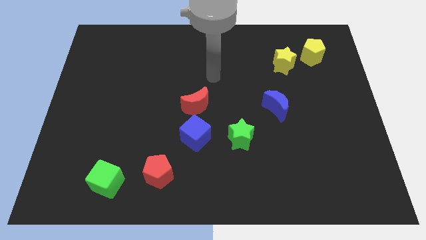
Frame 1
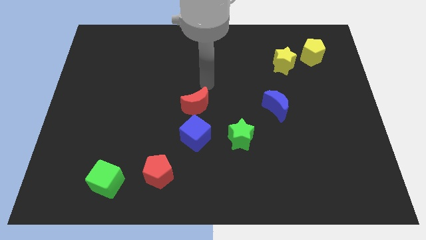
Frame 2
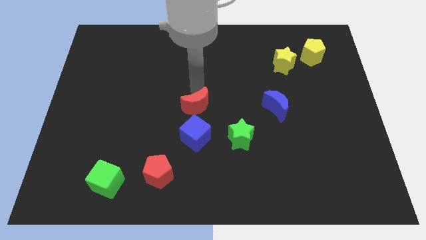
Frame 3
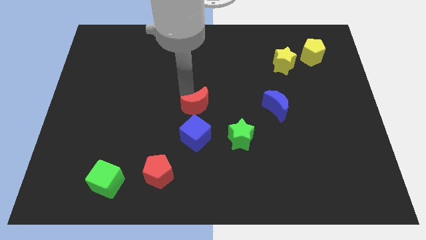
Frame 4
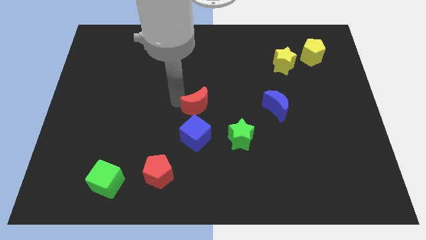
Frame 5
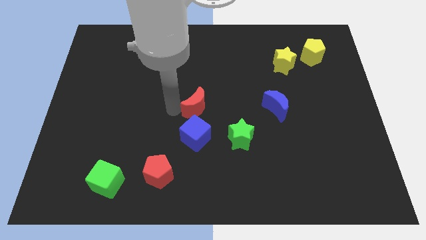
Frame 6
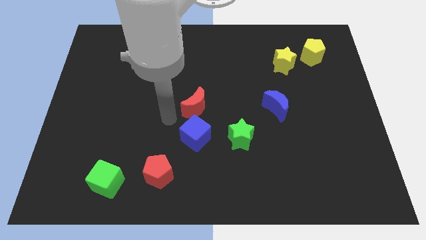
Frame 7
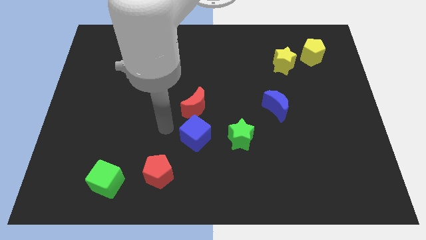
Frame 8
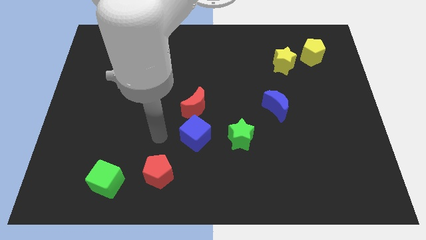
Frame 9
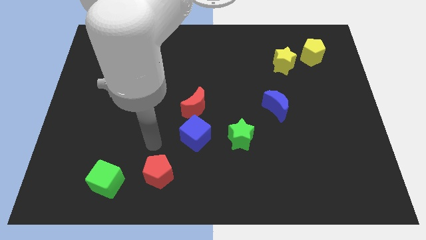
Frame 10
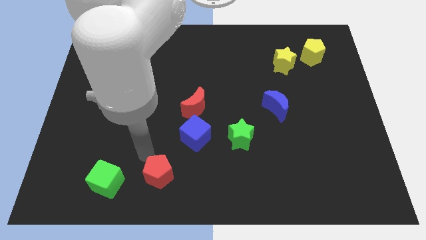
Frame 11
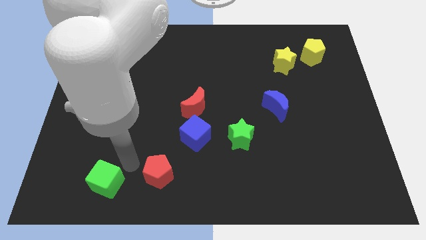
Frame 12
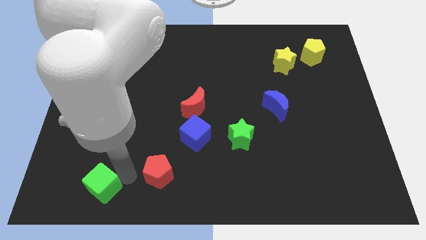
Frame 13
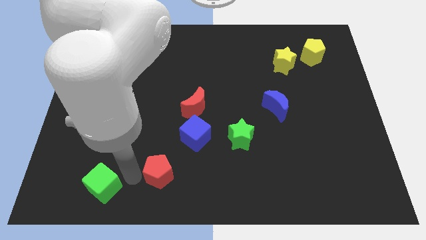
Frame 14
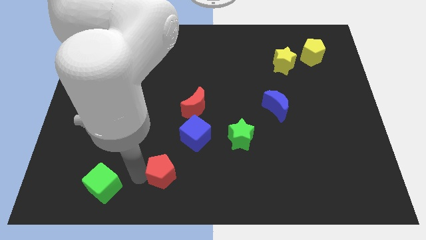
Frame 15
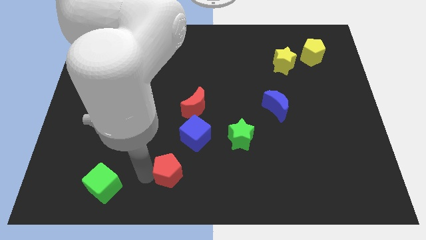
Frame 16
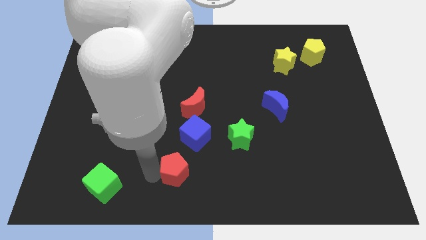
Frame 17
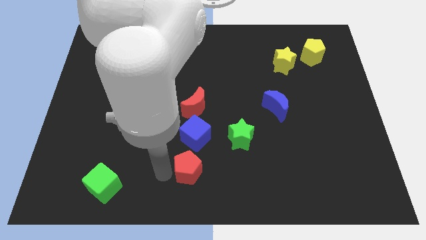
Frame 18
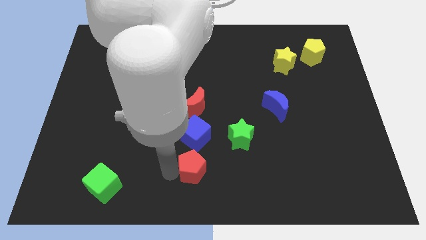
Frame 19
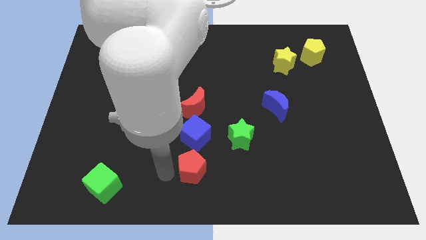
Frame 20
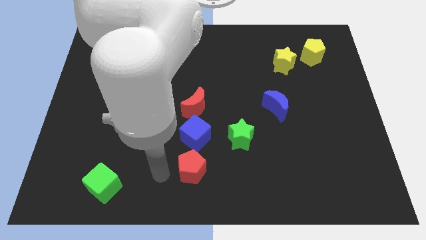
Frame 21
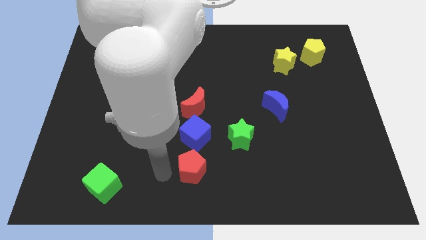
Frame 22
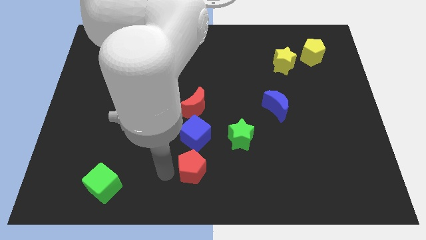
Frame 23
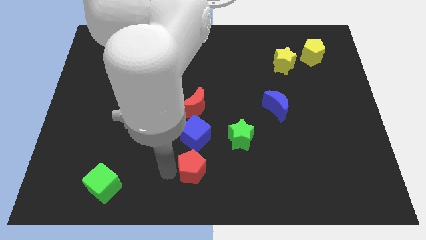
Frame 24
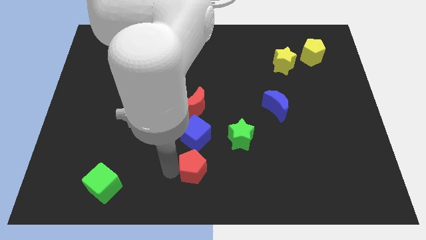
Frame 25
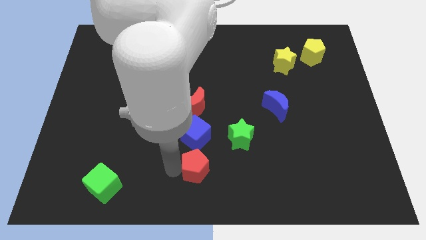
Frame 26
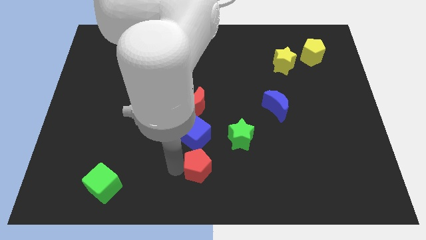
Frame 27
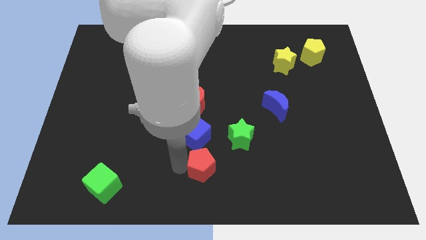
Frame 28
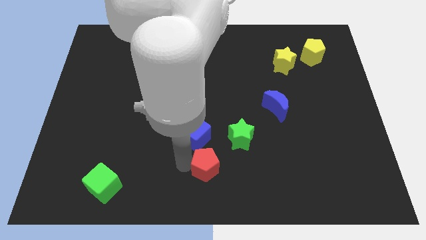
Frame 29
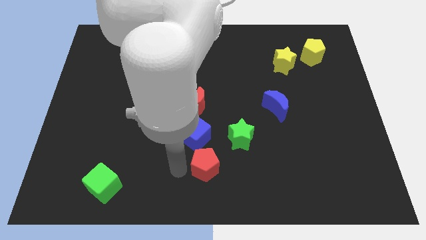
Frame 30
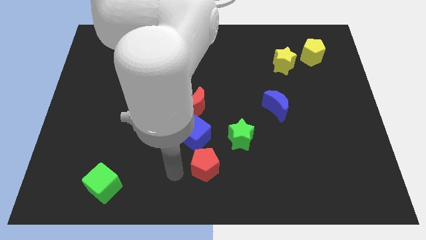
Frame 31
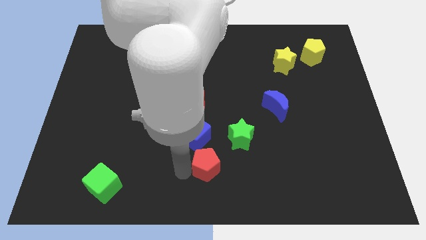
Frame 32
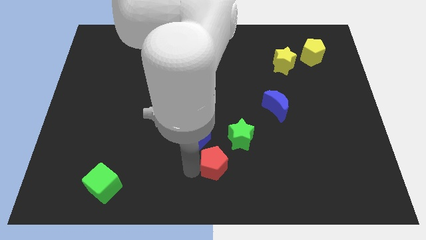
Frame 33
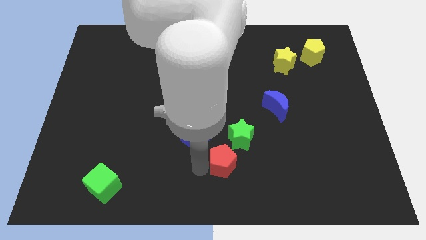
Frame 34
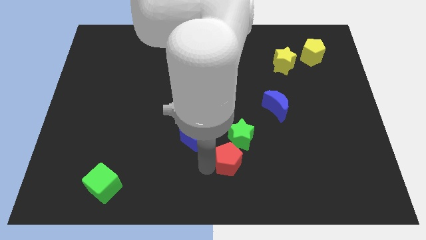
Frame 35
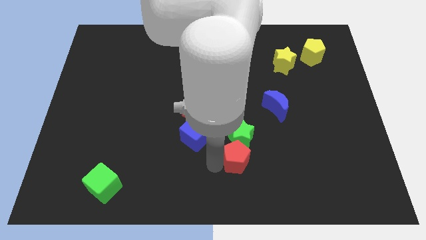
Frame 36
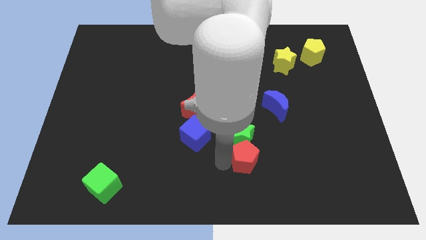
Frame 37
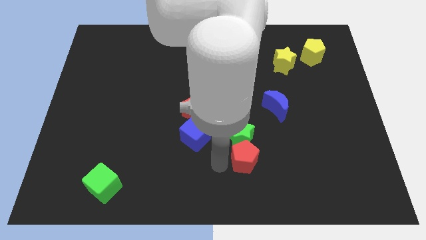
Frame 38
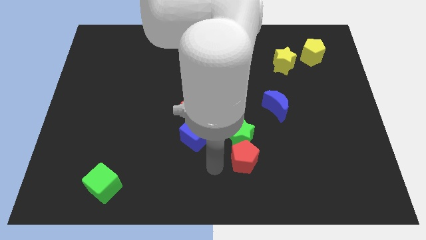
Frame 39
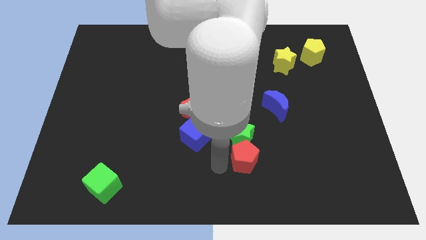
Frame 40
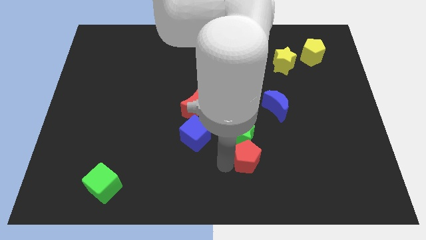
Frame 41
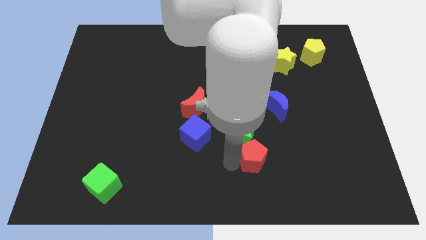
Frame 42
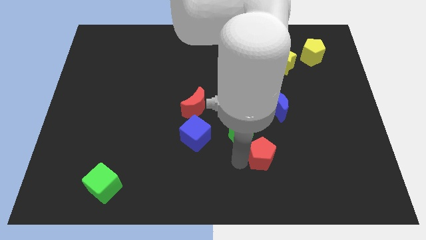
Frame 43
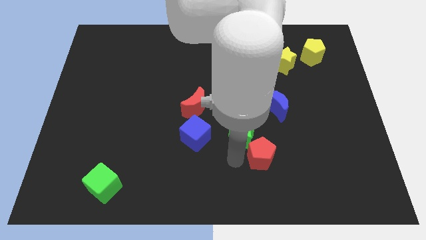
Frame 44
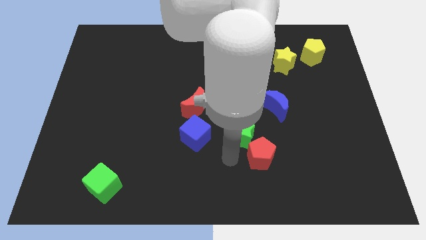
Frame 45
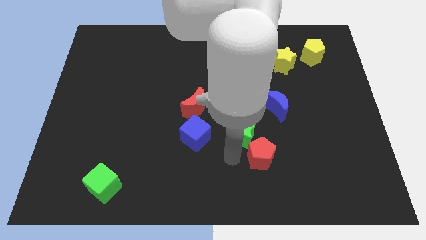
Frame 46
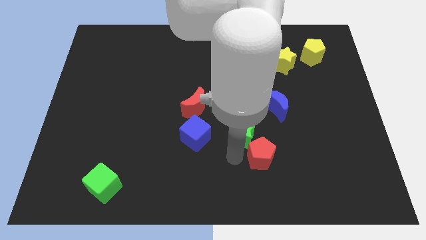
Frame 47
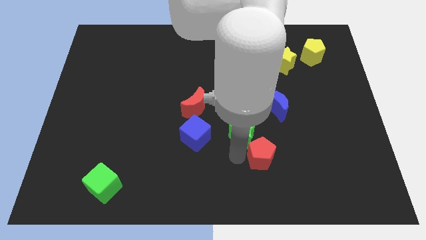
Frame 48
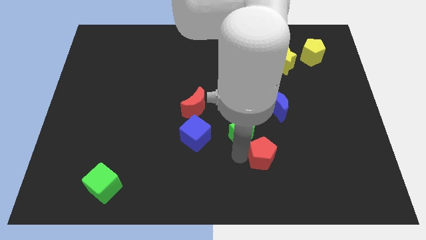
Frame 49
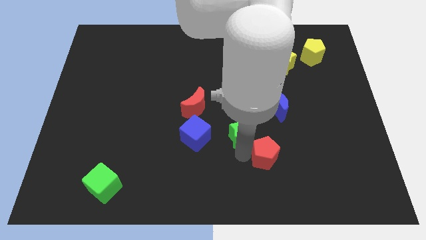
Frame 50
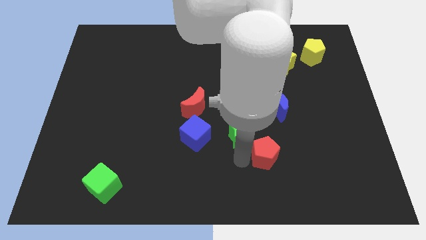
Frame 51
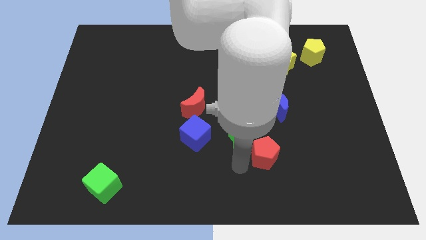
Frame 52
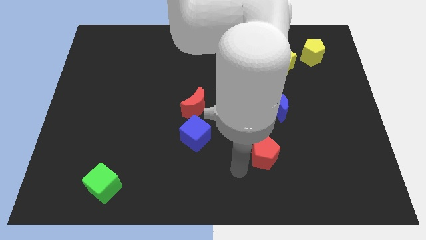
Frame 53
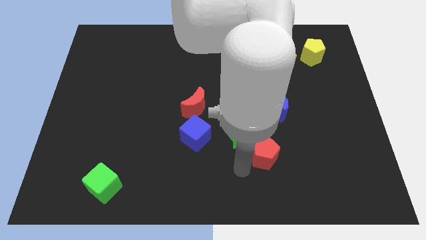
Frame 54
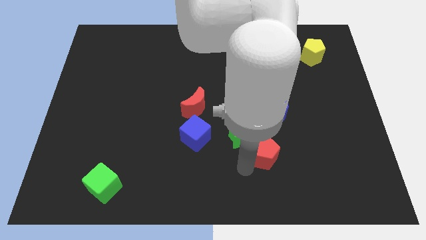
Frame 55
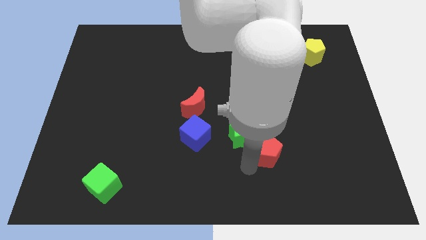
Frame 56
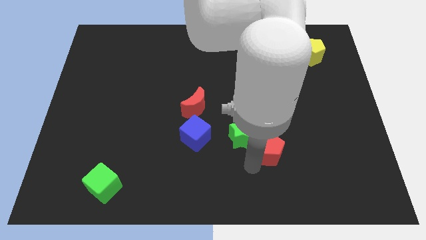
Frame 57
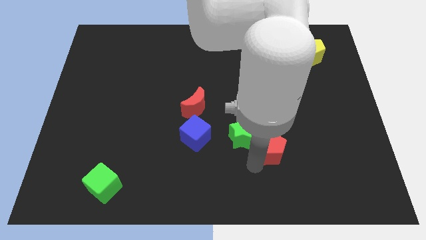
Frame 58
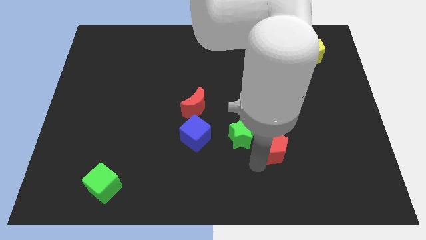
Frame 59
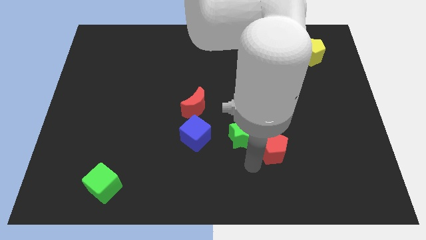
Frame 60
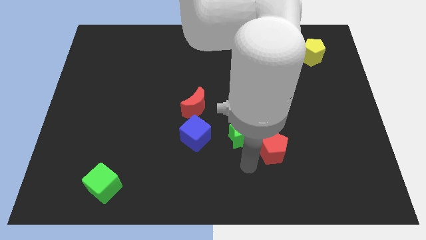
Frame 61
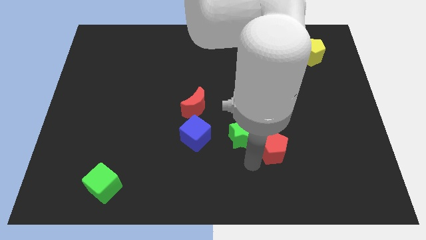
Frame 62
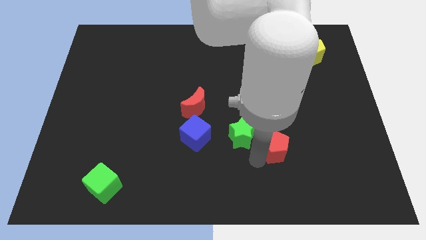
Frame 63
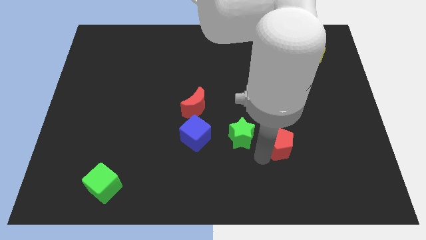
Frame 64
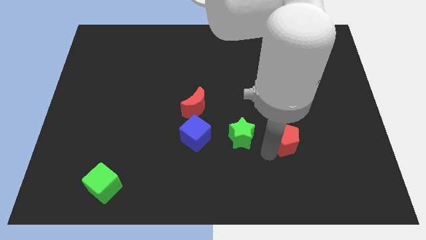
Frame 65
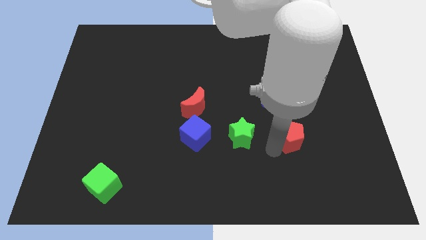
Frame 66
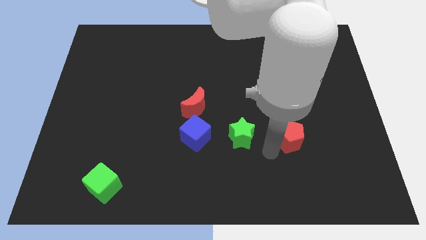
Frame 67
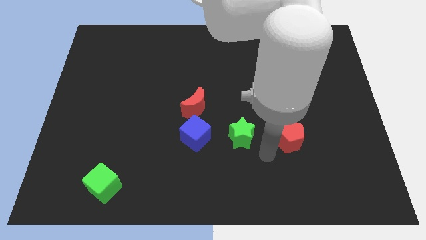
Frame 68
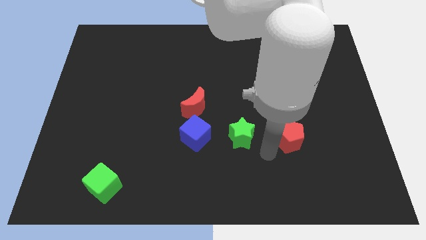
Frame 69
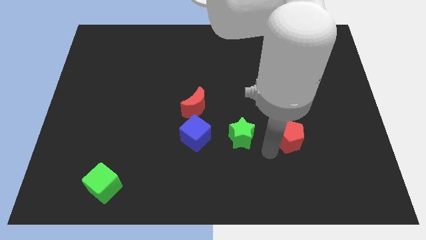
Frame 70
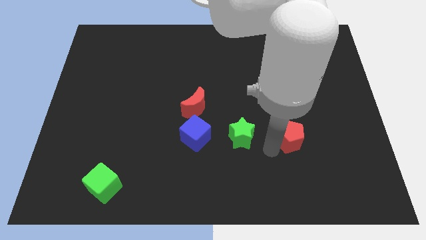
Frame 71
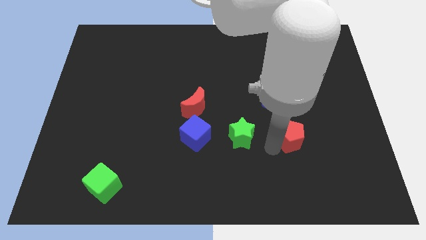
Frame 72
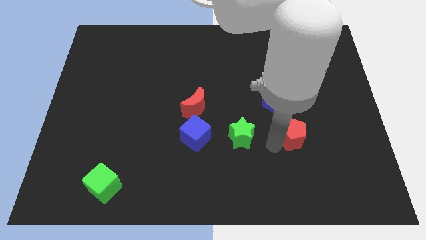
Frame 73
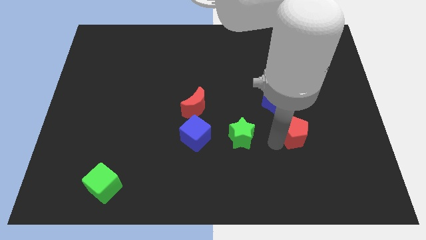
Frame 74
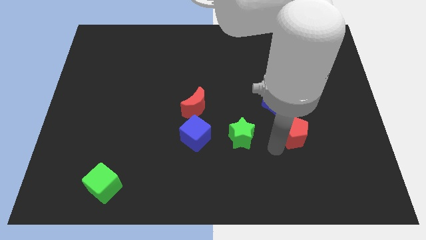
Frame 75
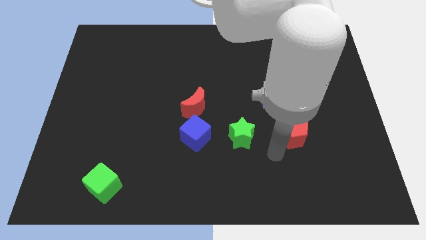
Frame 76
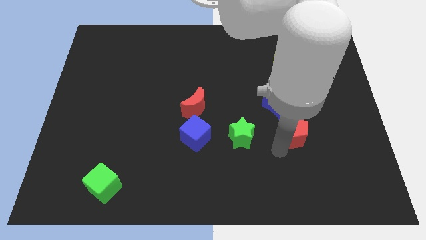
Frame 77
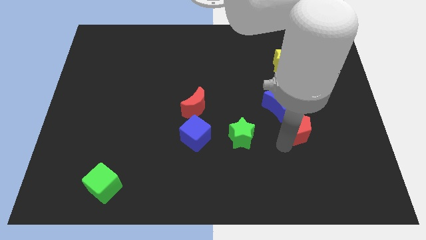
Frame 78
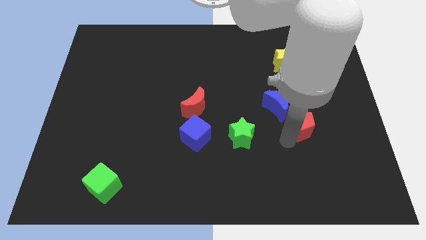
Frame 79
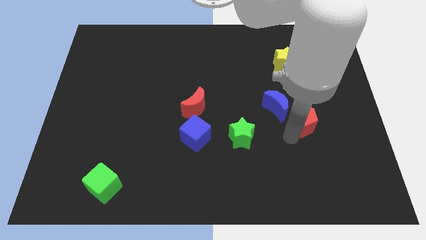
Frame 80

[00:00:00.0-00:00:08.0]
push the red pentagon to the right of the blue moon
